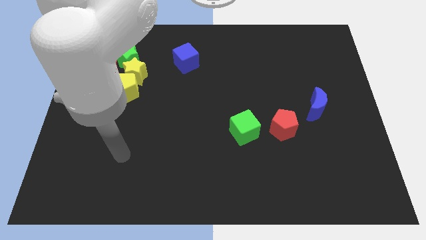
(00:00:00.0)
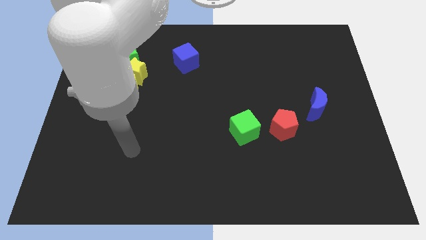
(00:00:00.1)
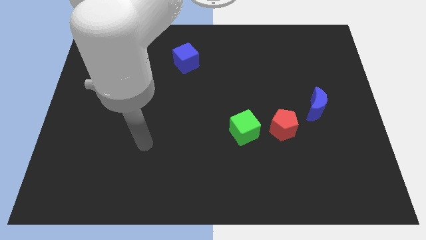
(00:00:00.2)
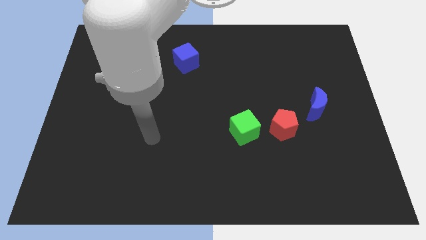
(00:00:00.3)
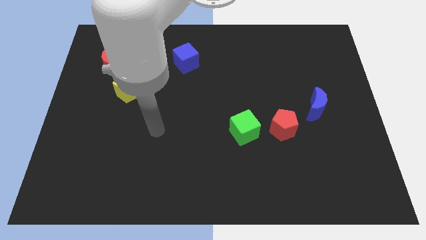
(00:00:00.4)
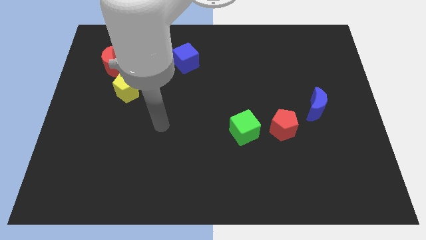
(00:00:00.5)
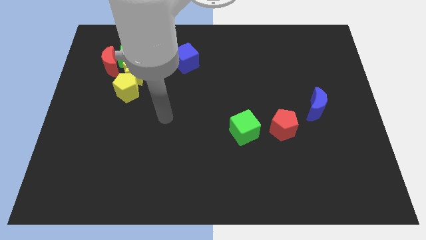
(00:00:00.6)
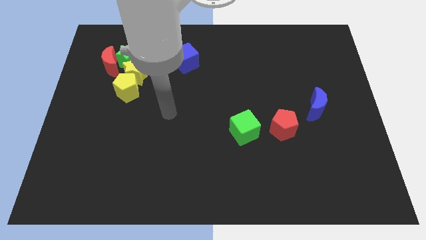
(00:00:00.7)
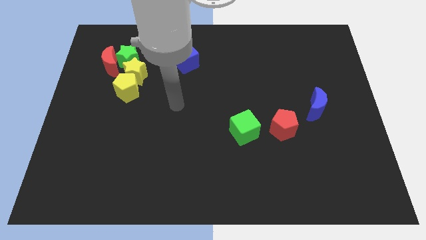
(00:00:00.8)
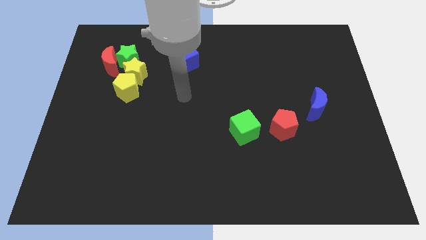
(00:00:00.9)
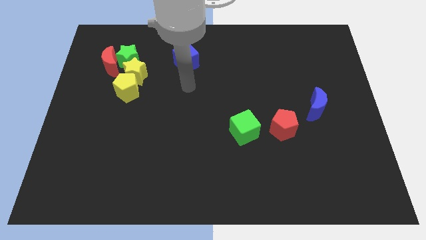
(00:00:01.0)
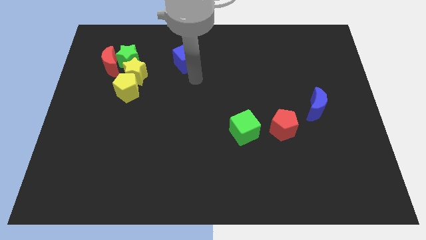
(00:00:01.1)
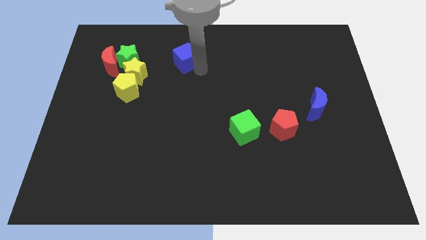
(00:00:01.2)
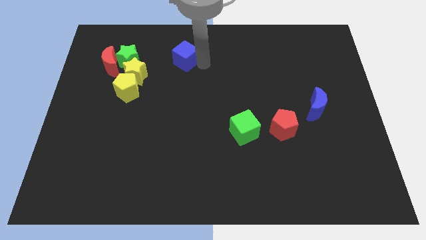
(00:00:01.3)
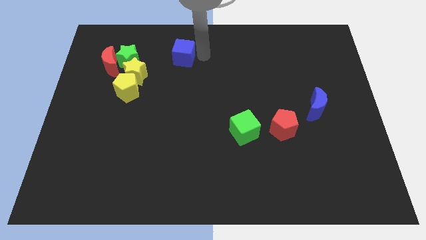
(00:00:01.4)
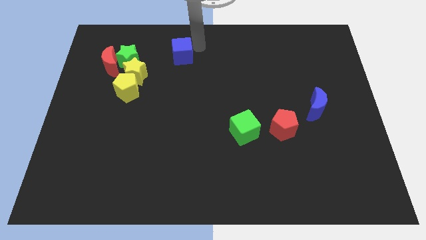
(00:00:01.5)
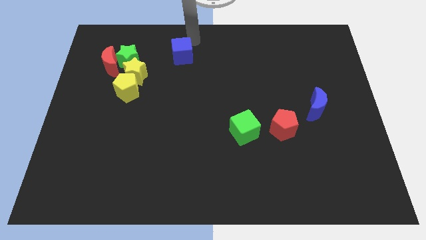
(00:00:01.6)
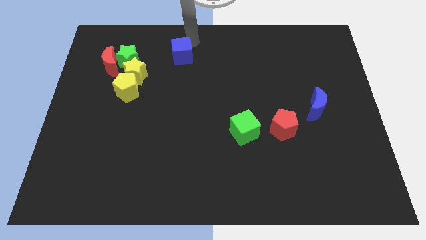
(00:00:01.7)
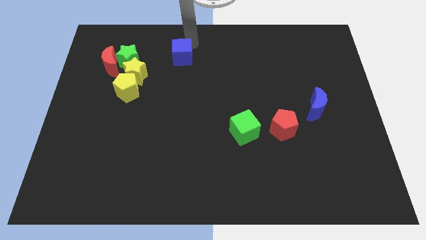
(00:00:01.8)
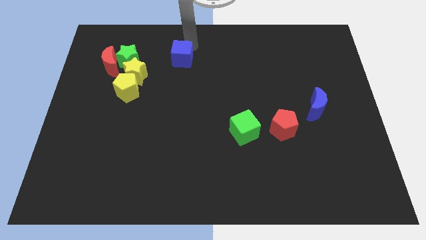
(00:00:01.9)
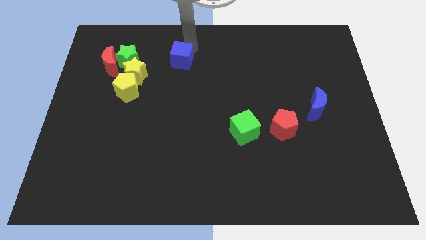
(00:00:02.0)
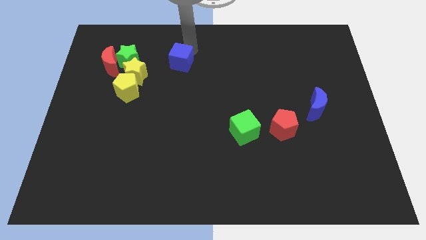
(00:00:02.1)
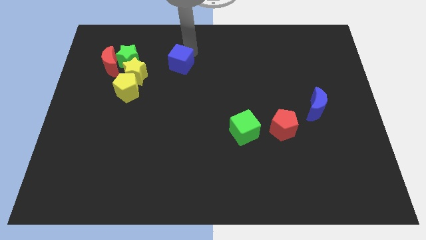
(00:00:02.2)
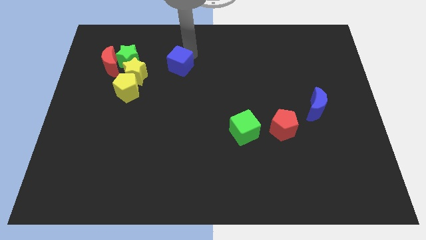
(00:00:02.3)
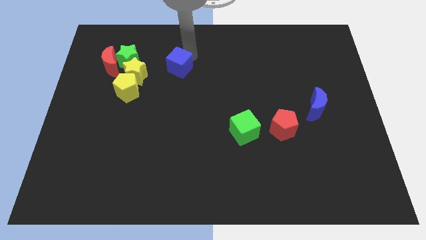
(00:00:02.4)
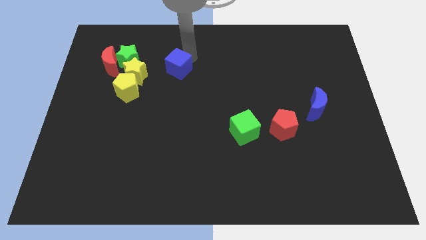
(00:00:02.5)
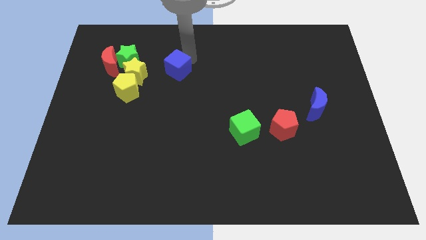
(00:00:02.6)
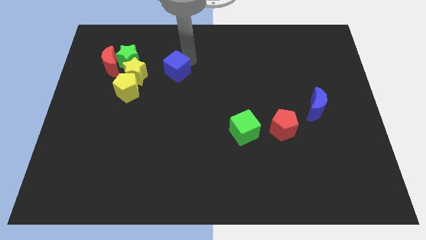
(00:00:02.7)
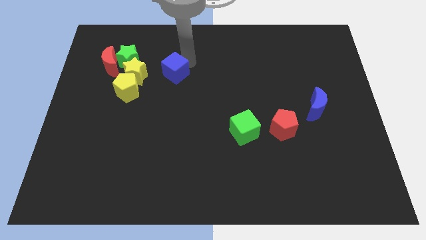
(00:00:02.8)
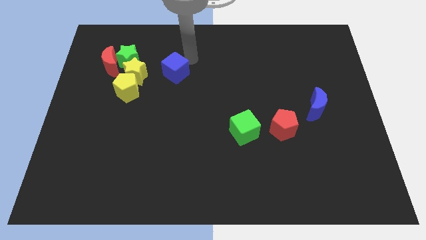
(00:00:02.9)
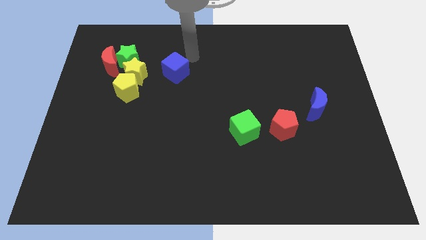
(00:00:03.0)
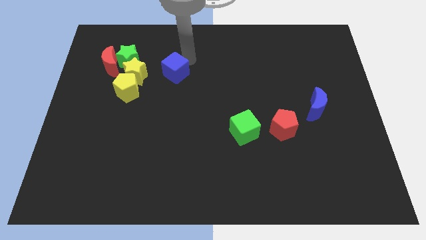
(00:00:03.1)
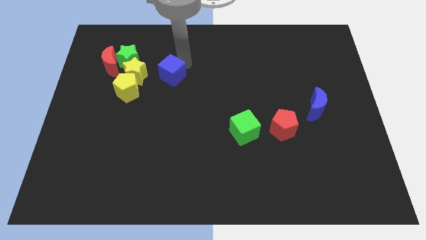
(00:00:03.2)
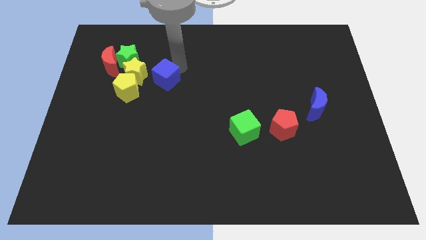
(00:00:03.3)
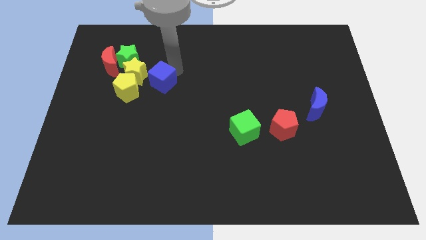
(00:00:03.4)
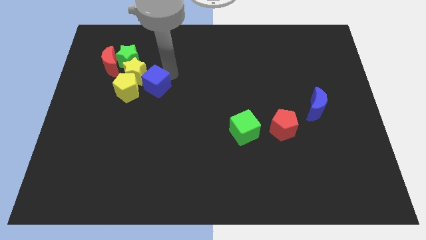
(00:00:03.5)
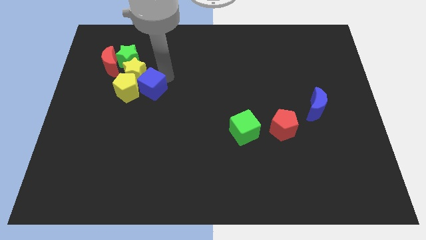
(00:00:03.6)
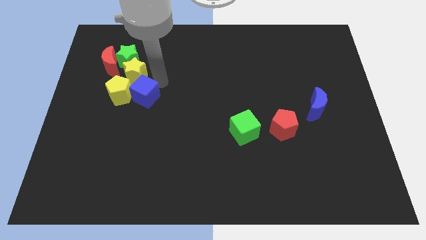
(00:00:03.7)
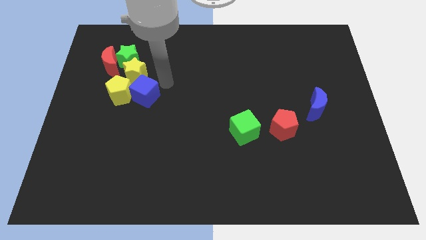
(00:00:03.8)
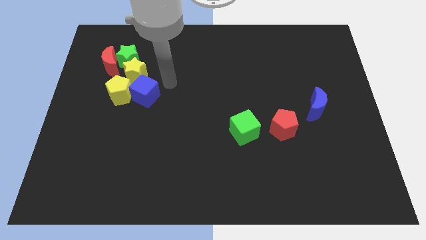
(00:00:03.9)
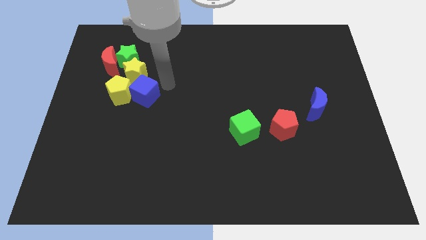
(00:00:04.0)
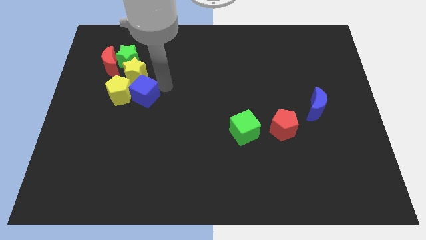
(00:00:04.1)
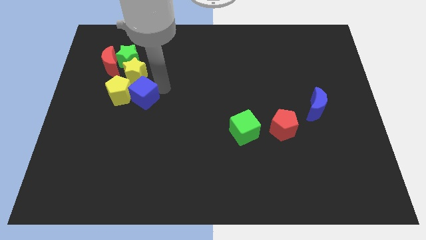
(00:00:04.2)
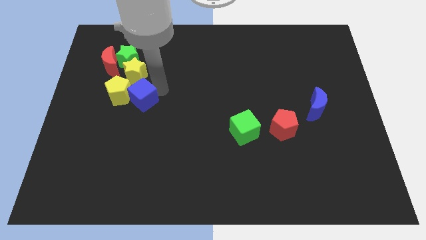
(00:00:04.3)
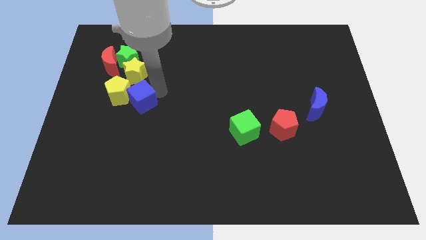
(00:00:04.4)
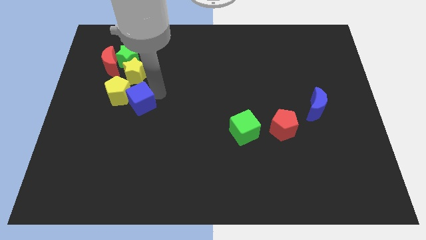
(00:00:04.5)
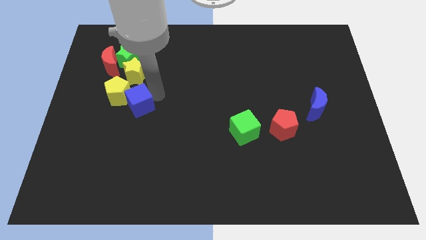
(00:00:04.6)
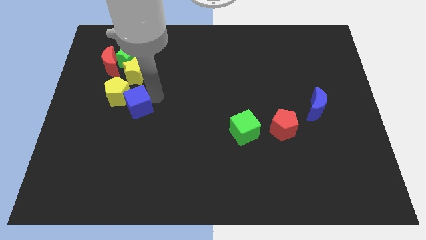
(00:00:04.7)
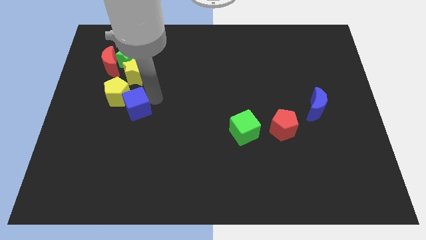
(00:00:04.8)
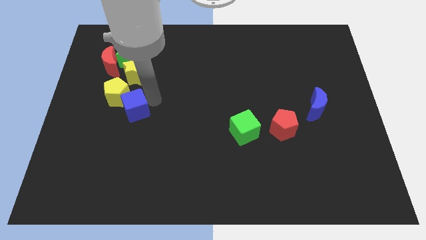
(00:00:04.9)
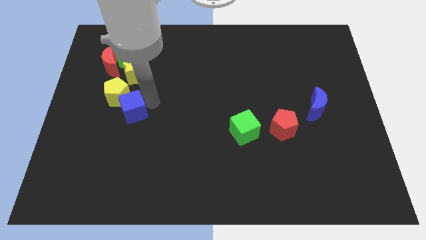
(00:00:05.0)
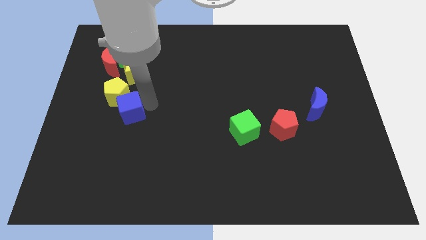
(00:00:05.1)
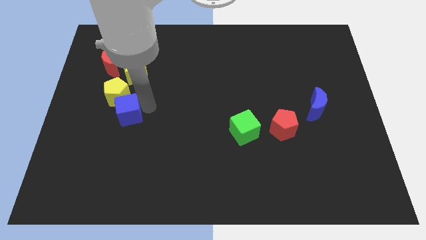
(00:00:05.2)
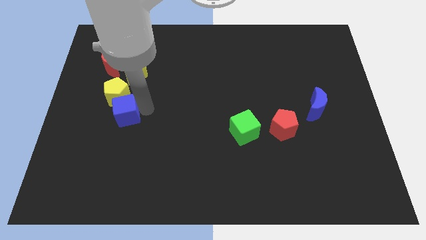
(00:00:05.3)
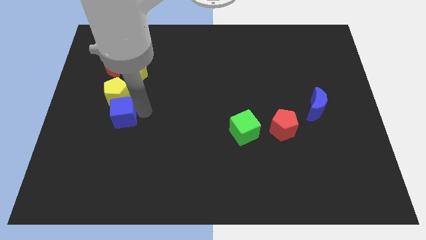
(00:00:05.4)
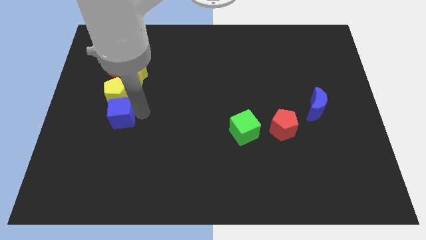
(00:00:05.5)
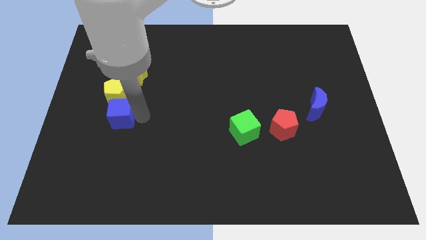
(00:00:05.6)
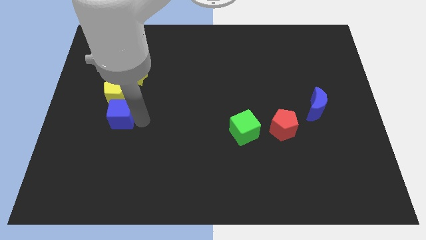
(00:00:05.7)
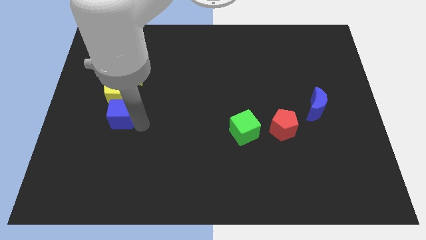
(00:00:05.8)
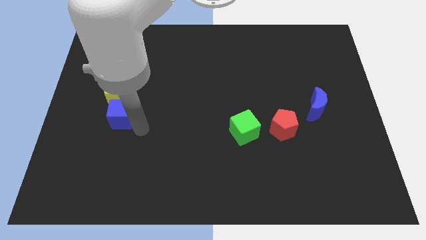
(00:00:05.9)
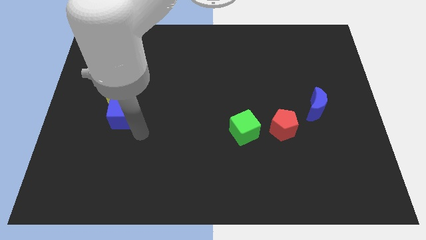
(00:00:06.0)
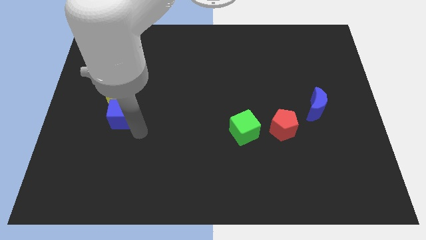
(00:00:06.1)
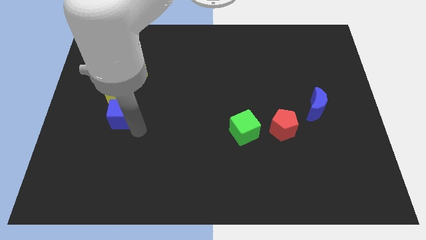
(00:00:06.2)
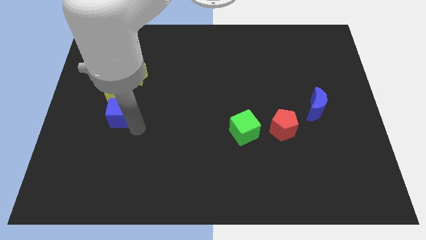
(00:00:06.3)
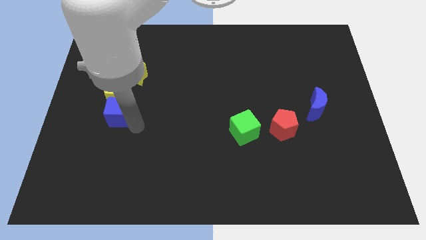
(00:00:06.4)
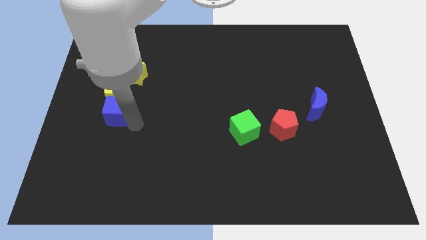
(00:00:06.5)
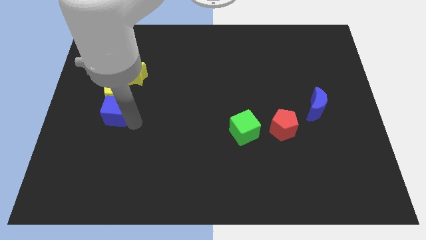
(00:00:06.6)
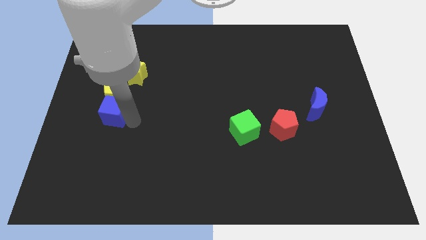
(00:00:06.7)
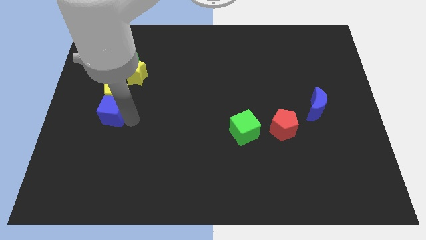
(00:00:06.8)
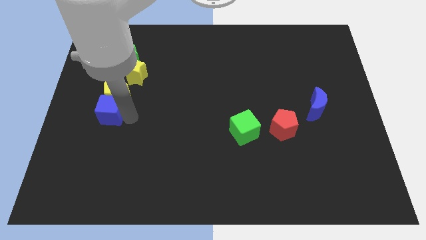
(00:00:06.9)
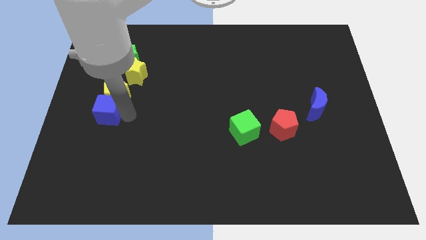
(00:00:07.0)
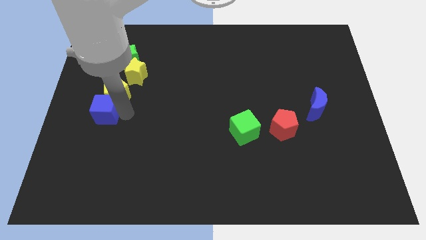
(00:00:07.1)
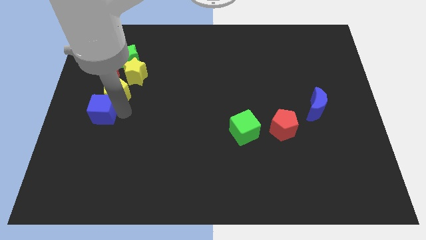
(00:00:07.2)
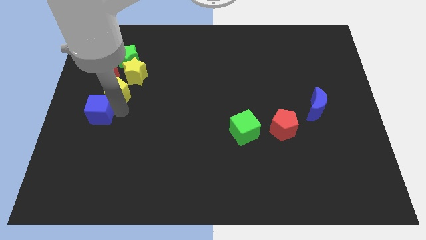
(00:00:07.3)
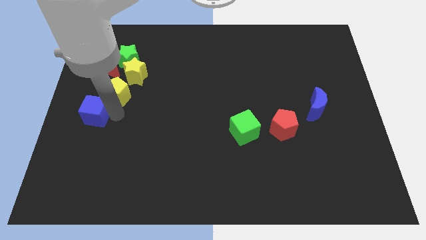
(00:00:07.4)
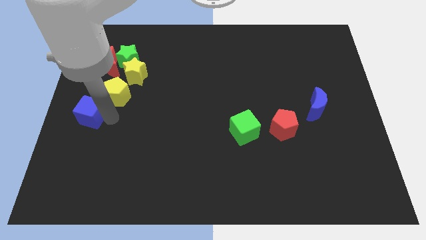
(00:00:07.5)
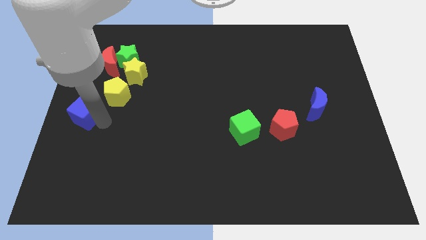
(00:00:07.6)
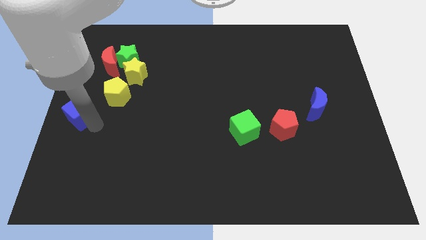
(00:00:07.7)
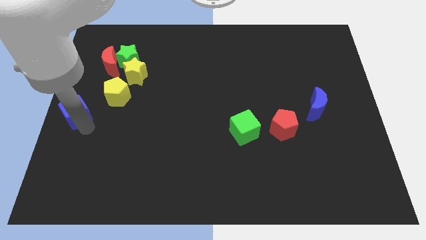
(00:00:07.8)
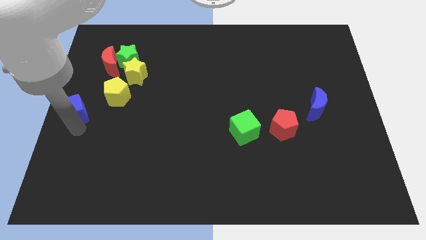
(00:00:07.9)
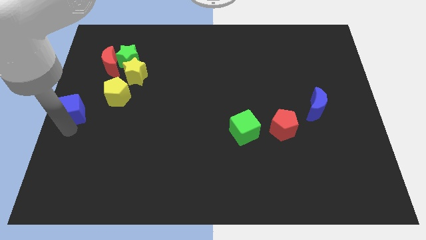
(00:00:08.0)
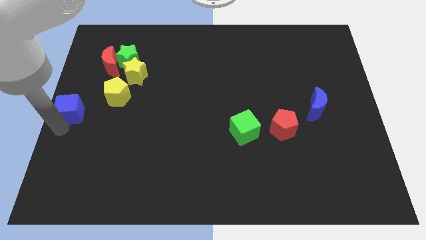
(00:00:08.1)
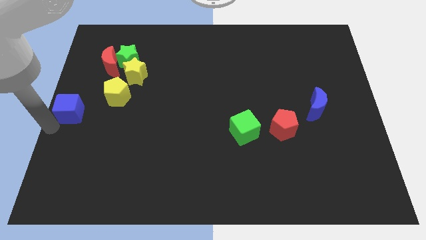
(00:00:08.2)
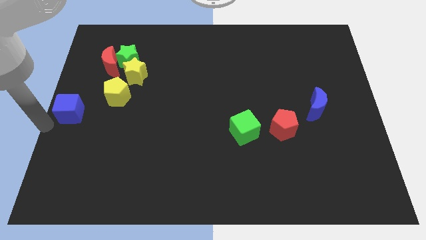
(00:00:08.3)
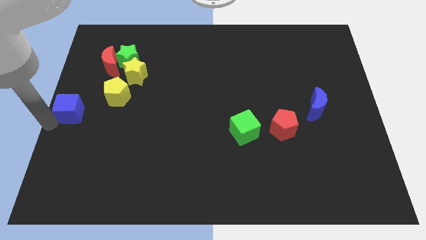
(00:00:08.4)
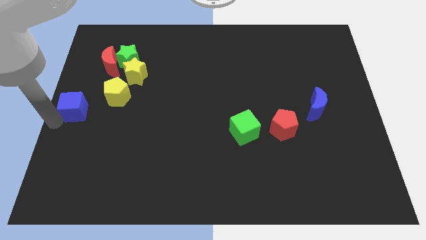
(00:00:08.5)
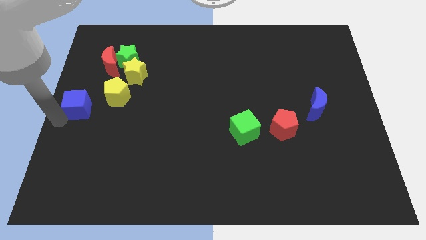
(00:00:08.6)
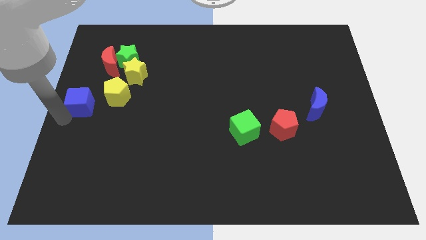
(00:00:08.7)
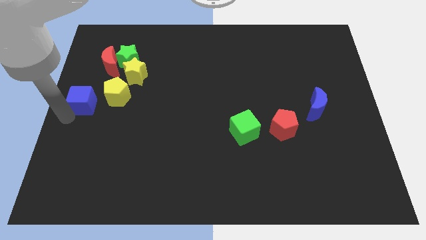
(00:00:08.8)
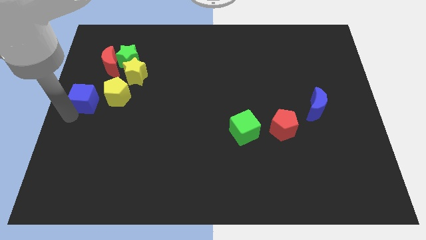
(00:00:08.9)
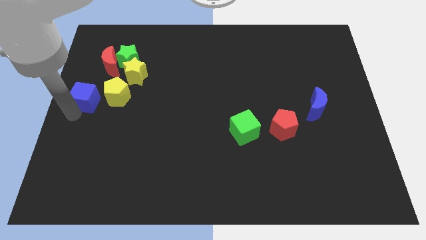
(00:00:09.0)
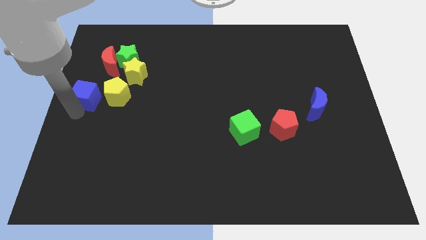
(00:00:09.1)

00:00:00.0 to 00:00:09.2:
put the blue cube diagonally down and to the left of the yellow star
